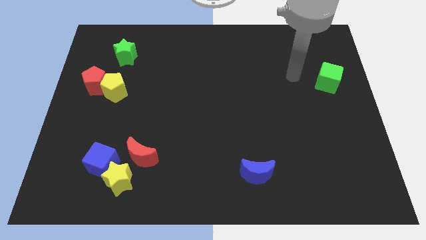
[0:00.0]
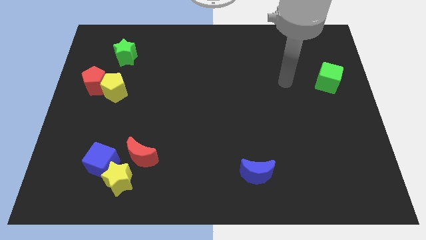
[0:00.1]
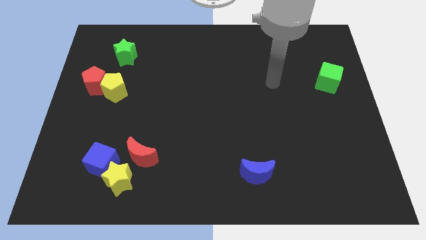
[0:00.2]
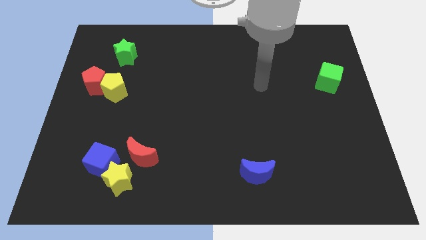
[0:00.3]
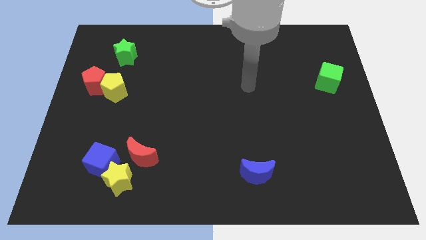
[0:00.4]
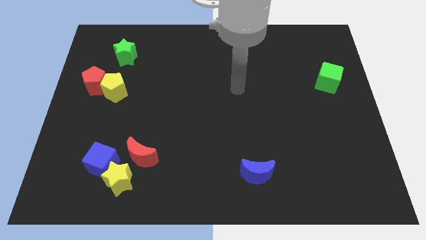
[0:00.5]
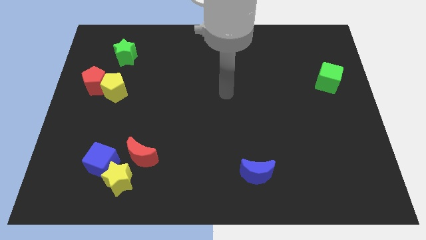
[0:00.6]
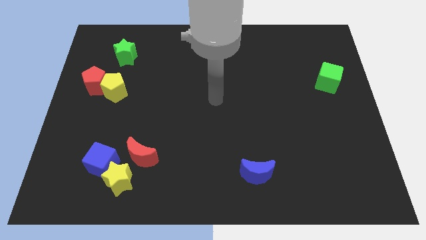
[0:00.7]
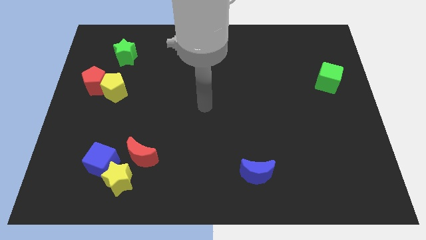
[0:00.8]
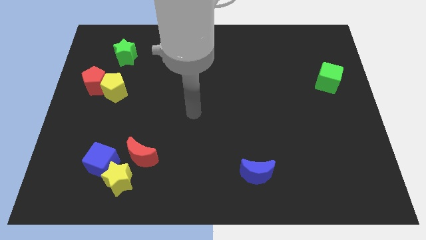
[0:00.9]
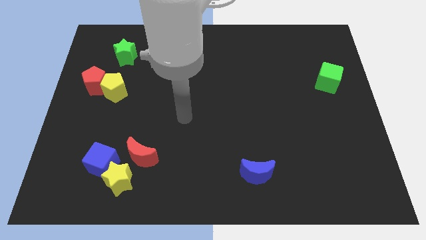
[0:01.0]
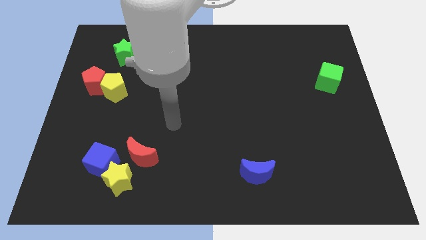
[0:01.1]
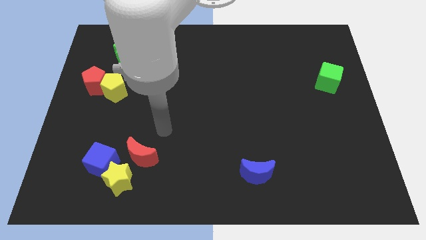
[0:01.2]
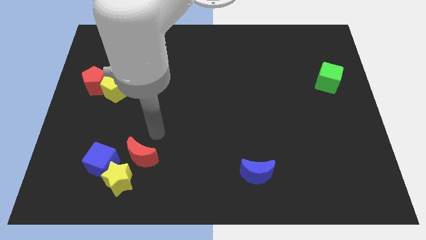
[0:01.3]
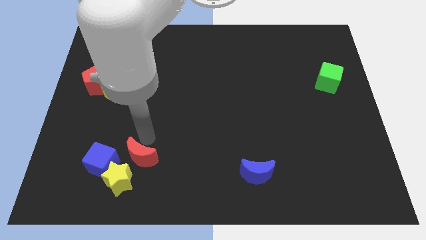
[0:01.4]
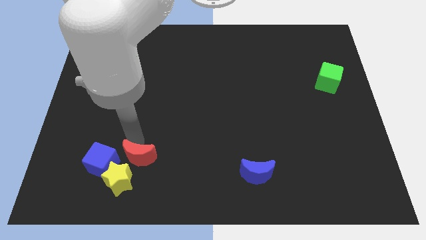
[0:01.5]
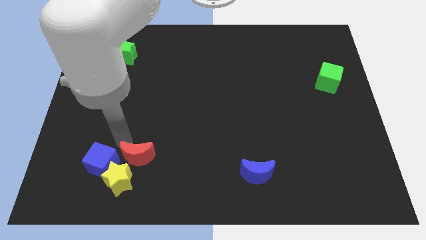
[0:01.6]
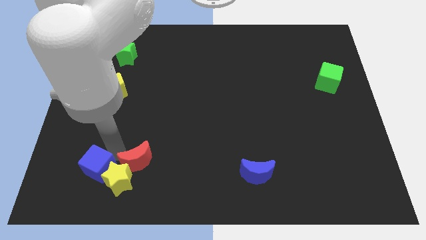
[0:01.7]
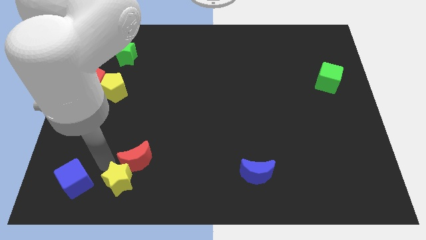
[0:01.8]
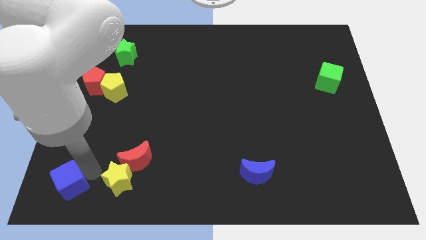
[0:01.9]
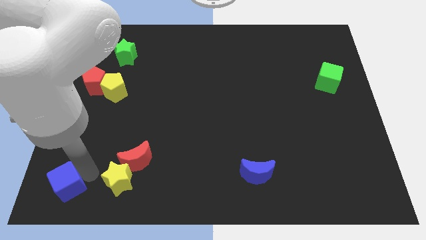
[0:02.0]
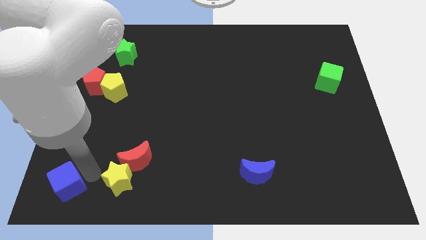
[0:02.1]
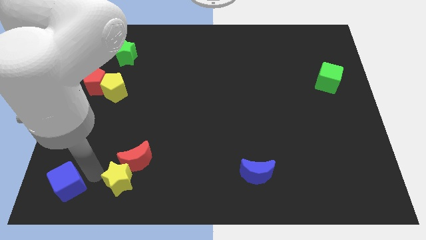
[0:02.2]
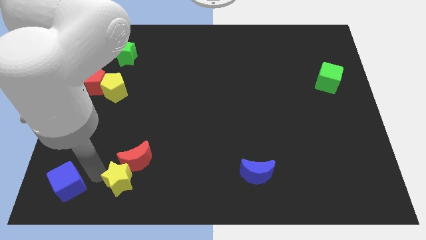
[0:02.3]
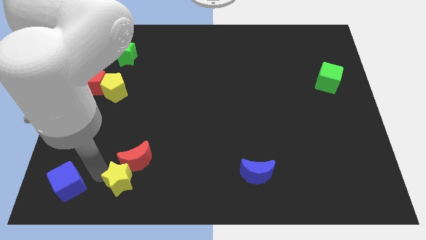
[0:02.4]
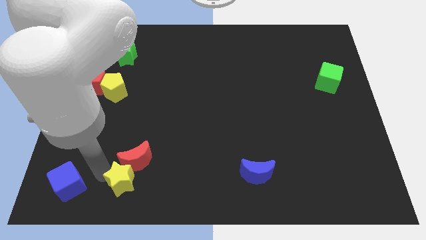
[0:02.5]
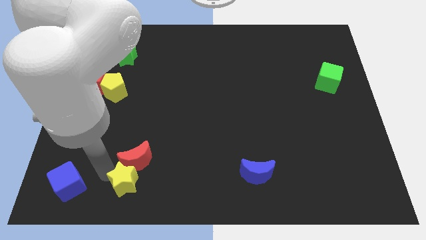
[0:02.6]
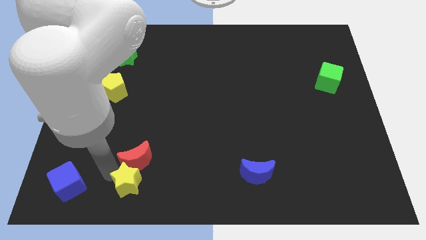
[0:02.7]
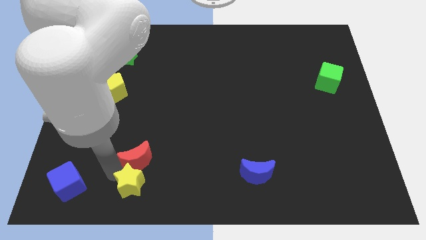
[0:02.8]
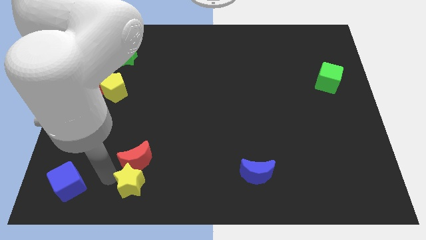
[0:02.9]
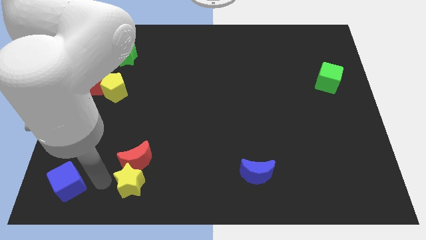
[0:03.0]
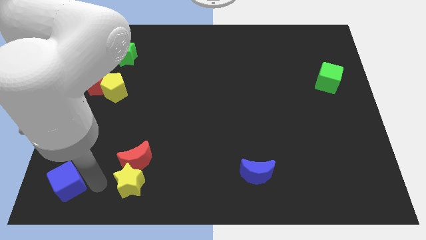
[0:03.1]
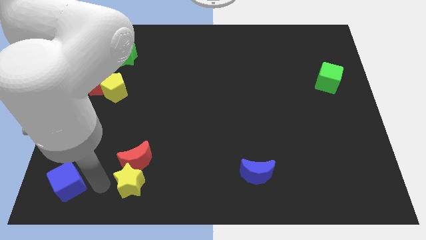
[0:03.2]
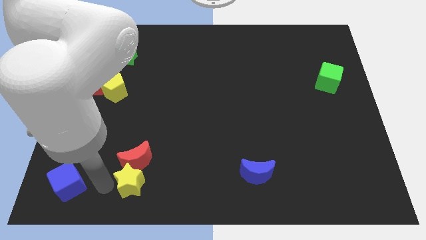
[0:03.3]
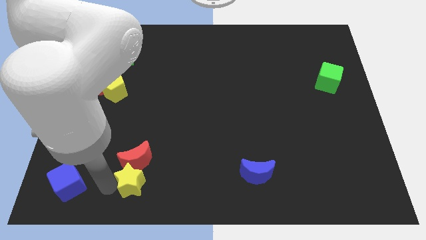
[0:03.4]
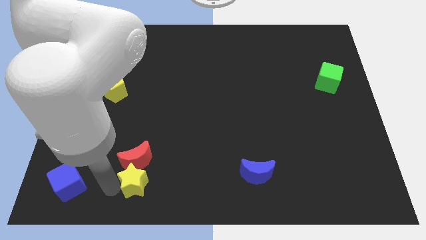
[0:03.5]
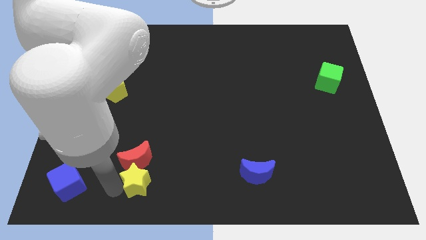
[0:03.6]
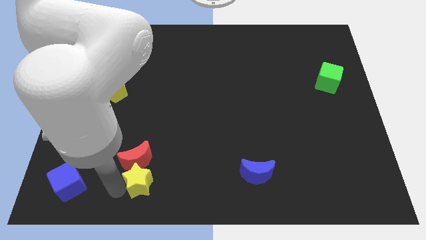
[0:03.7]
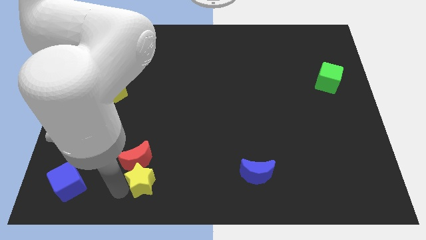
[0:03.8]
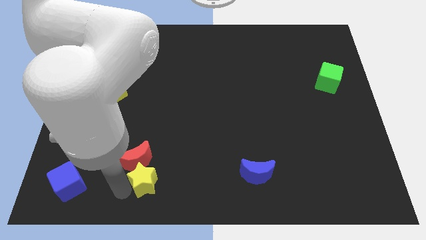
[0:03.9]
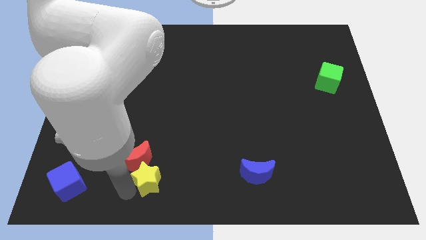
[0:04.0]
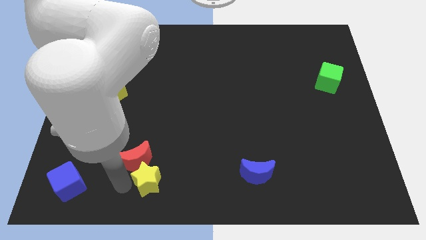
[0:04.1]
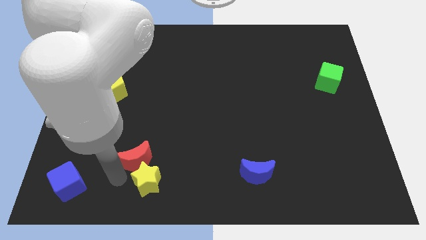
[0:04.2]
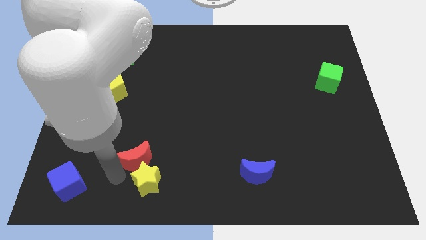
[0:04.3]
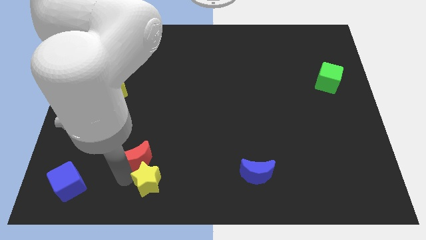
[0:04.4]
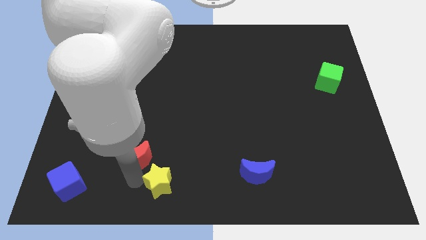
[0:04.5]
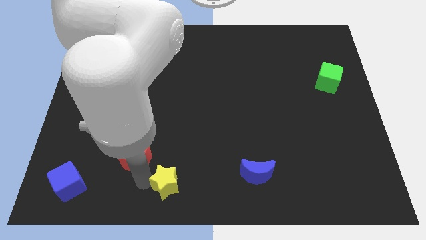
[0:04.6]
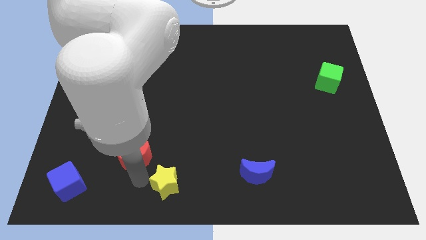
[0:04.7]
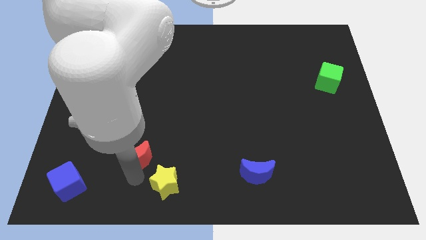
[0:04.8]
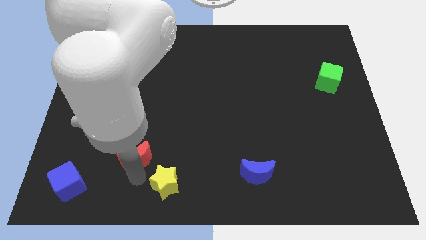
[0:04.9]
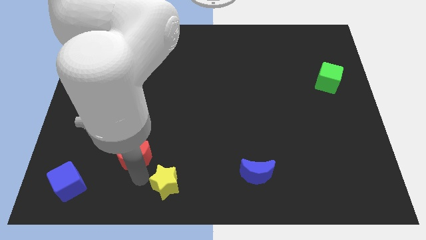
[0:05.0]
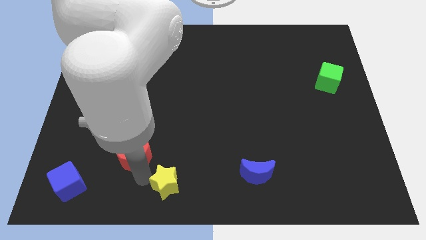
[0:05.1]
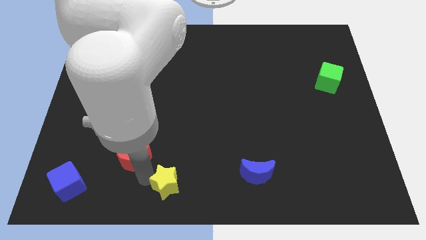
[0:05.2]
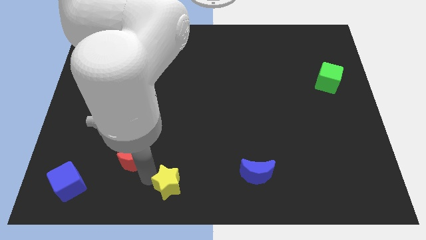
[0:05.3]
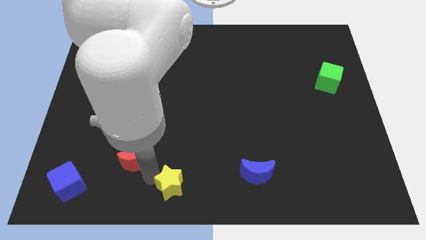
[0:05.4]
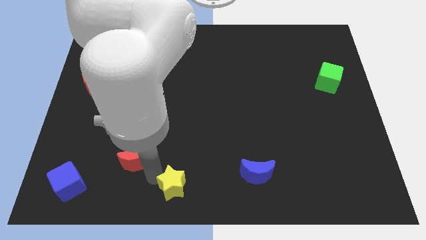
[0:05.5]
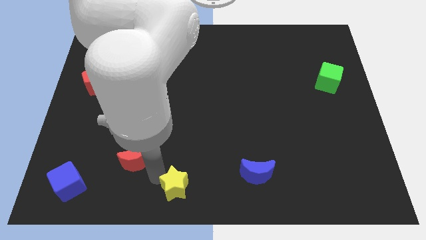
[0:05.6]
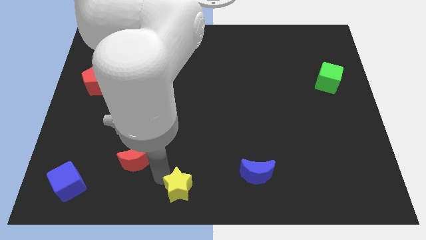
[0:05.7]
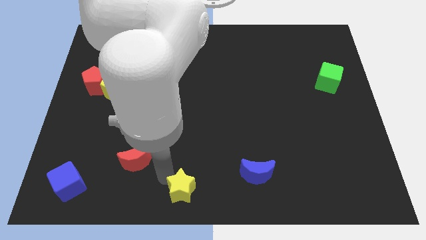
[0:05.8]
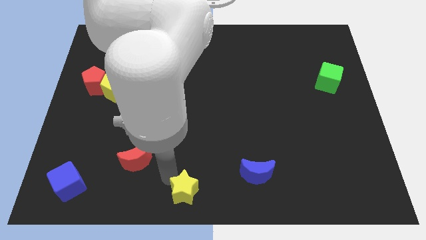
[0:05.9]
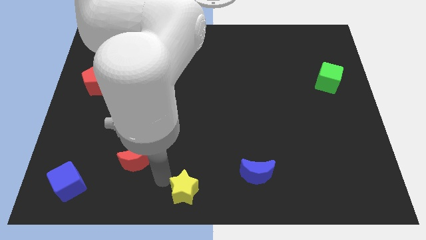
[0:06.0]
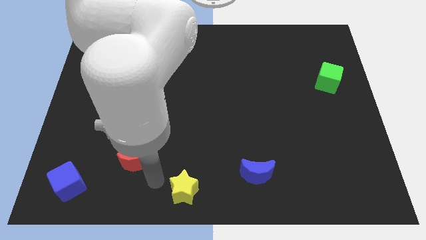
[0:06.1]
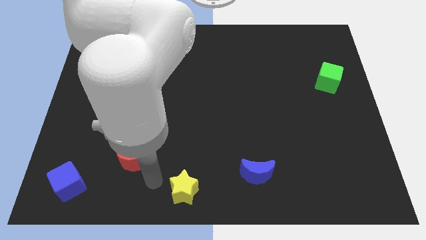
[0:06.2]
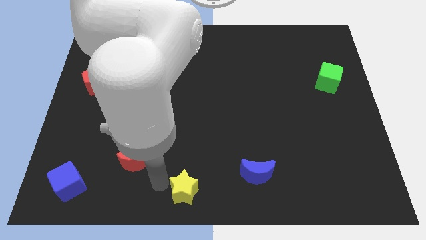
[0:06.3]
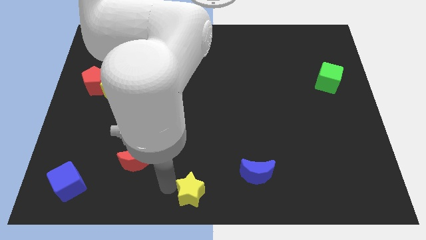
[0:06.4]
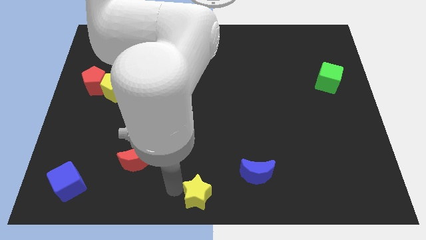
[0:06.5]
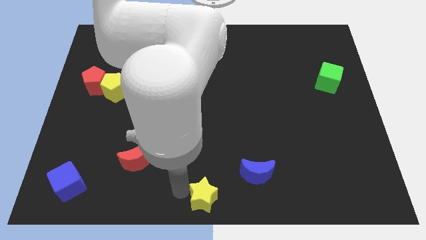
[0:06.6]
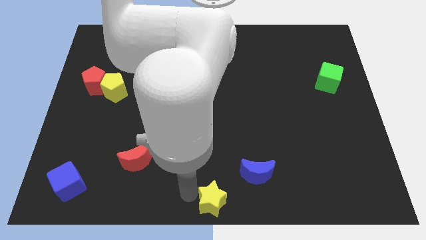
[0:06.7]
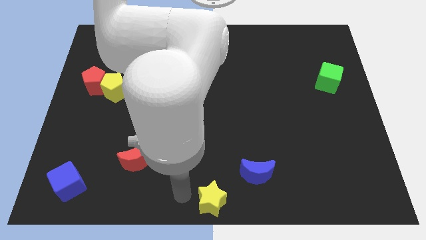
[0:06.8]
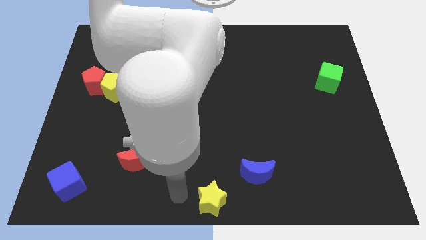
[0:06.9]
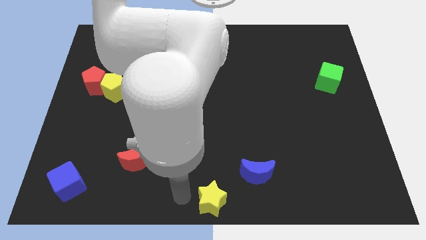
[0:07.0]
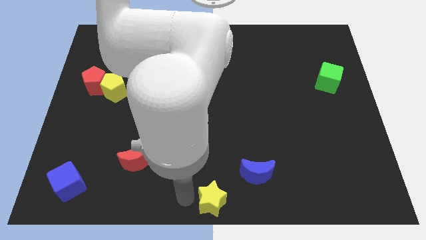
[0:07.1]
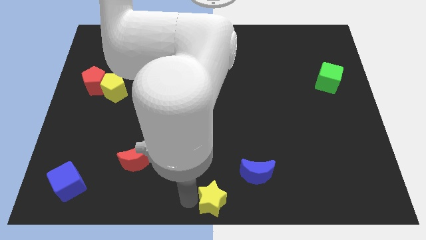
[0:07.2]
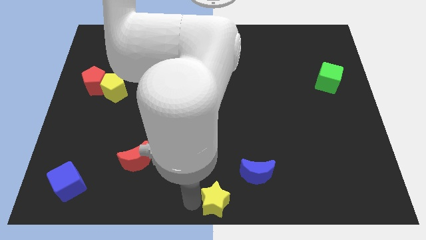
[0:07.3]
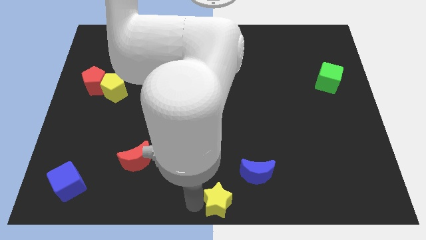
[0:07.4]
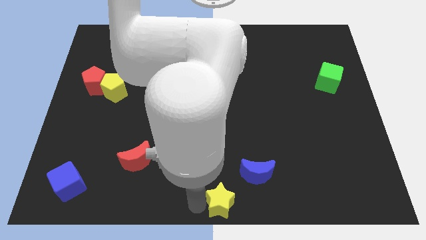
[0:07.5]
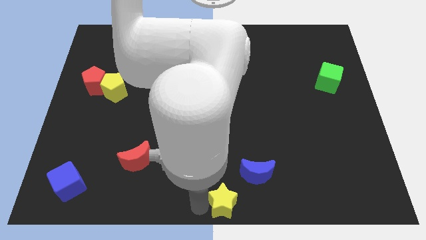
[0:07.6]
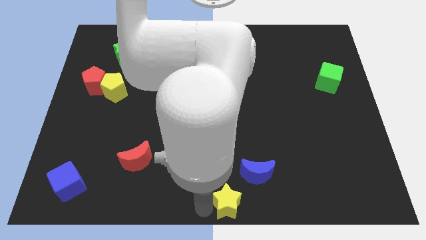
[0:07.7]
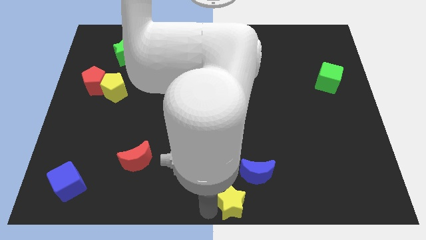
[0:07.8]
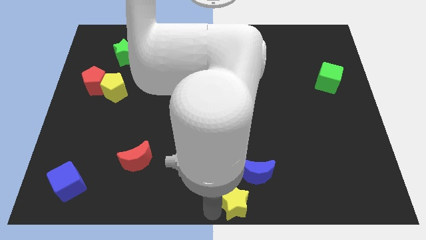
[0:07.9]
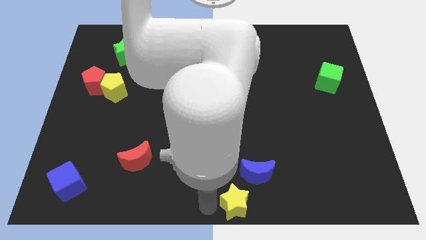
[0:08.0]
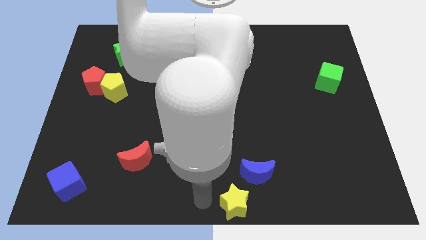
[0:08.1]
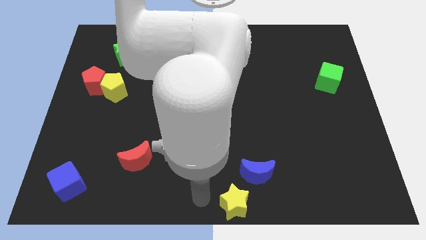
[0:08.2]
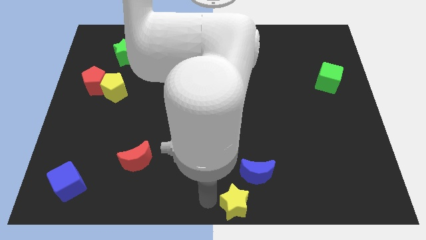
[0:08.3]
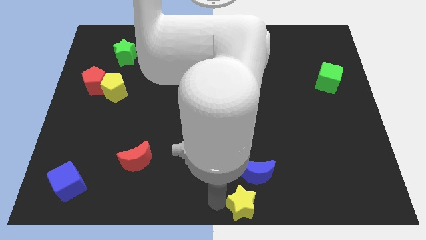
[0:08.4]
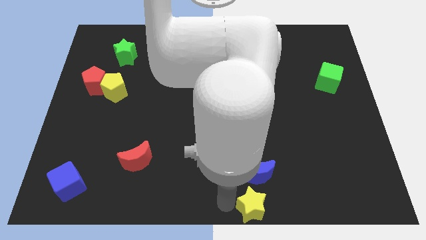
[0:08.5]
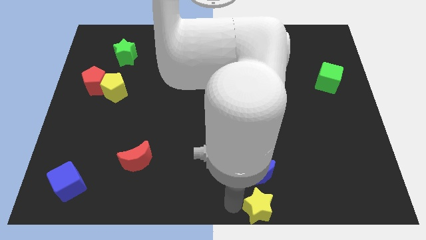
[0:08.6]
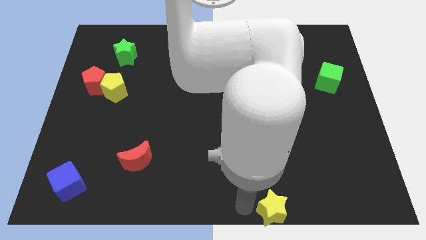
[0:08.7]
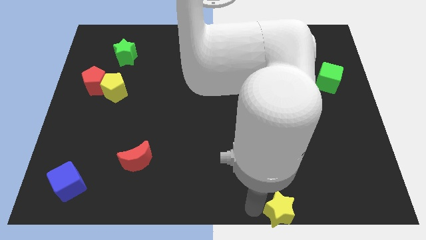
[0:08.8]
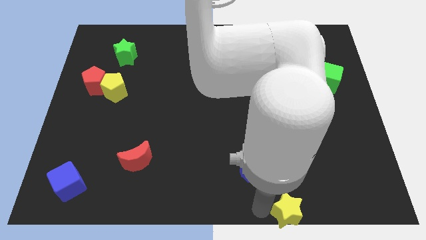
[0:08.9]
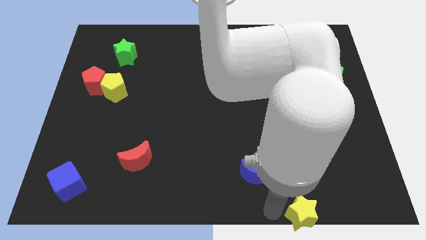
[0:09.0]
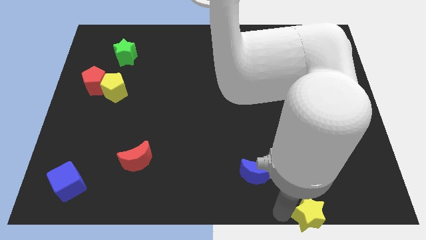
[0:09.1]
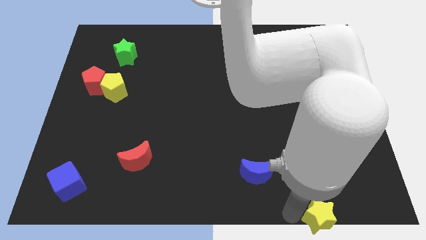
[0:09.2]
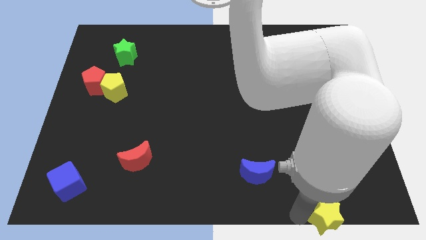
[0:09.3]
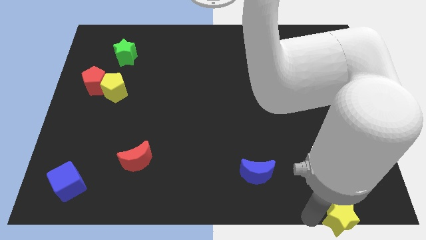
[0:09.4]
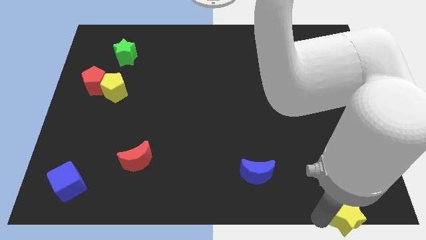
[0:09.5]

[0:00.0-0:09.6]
put the yellow star to the lower right corner
